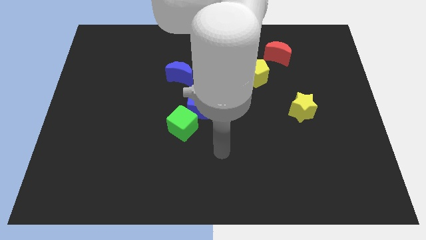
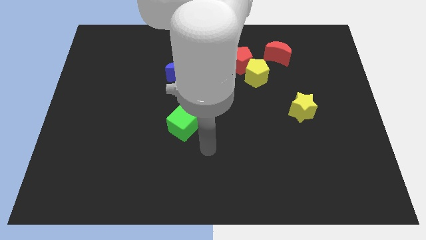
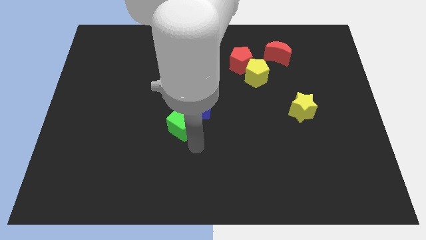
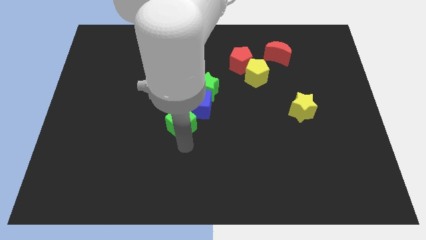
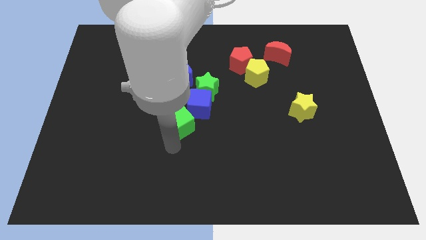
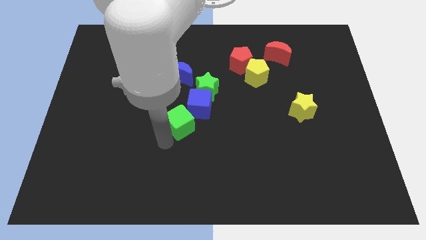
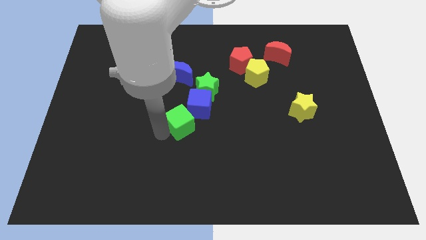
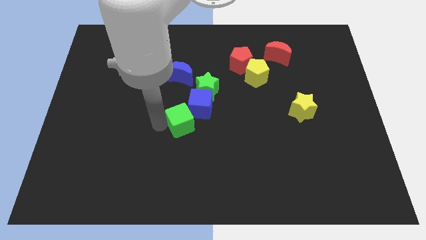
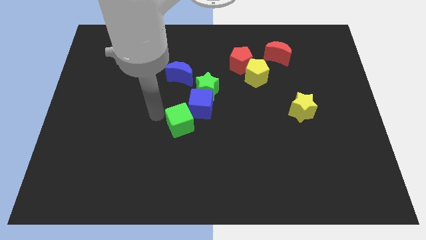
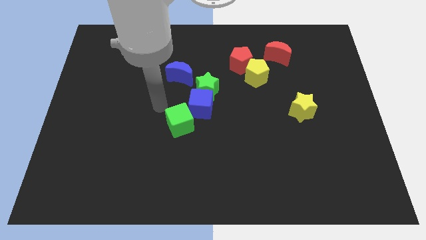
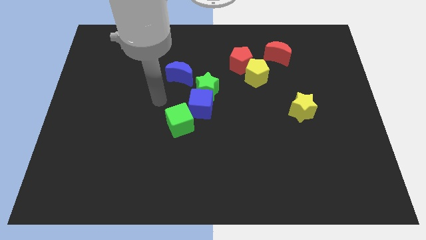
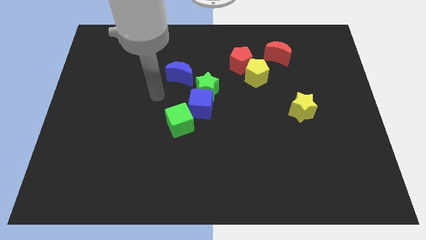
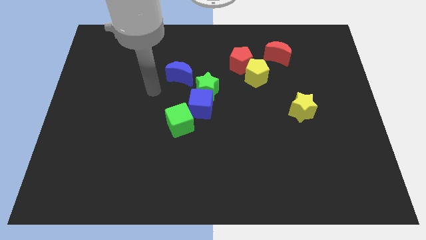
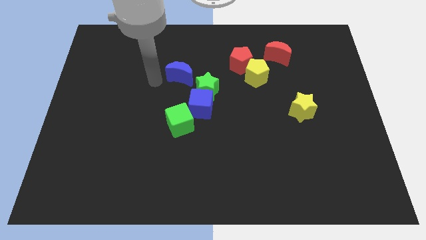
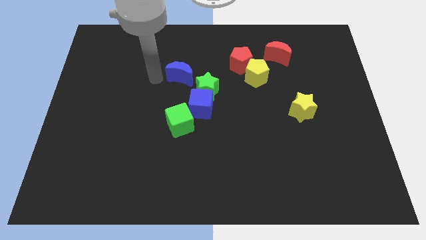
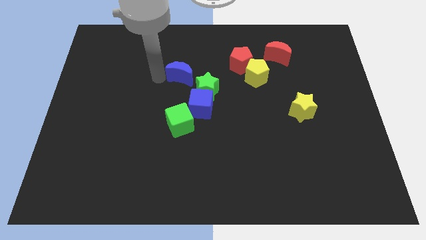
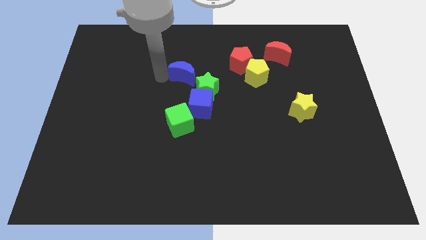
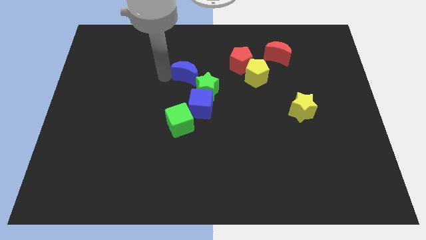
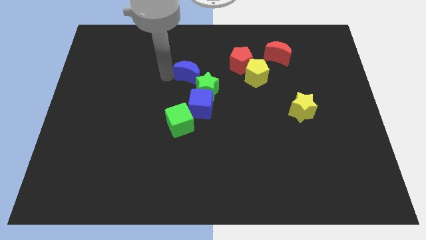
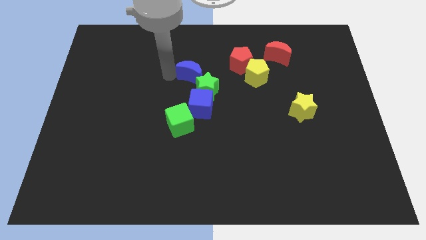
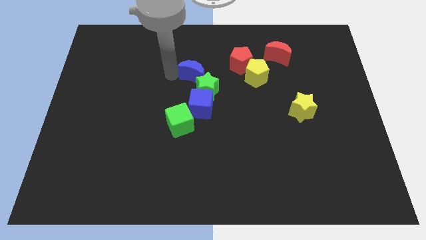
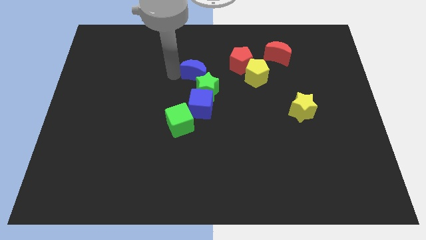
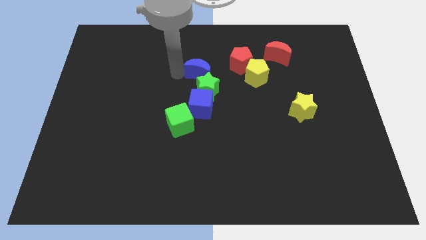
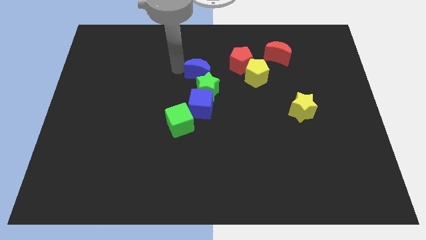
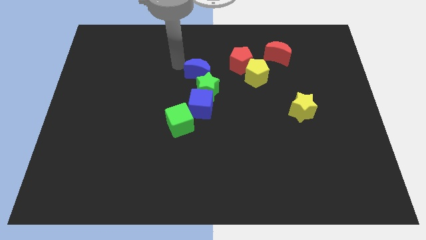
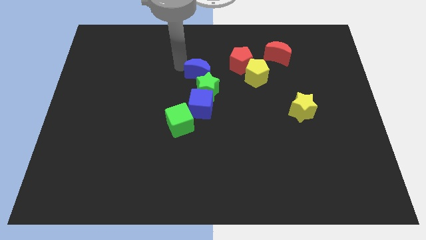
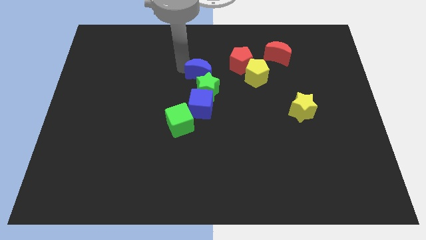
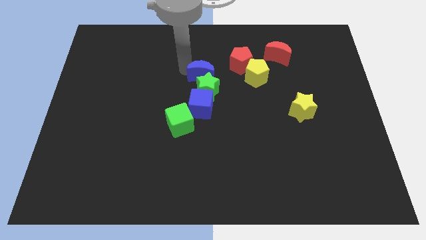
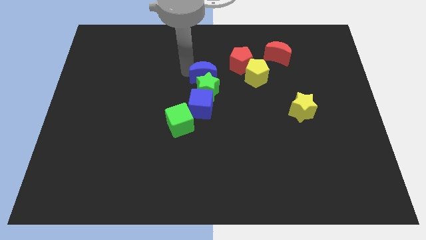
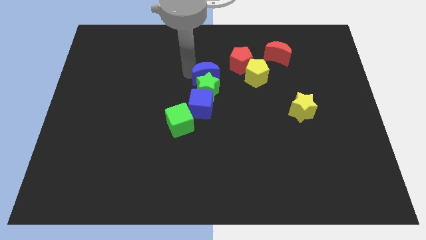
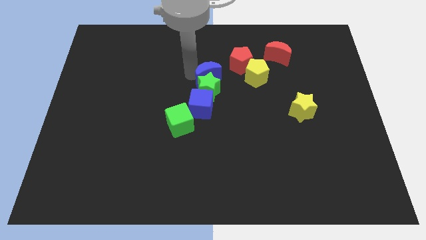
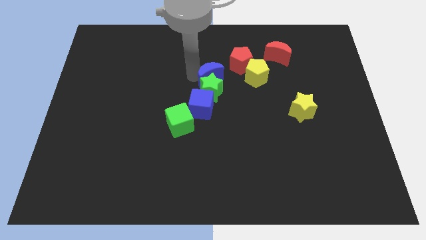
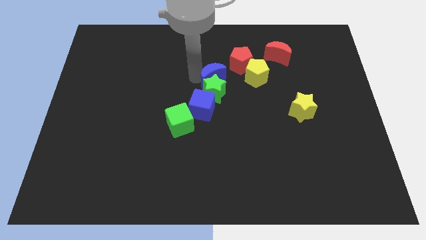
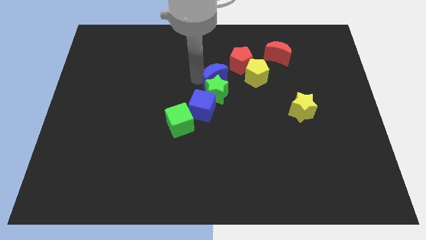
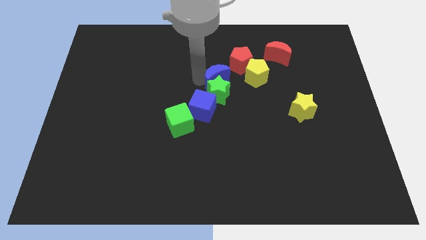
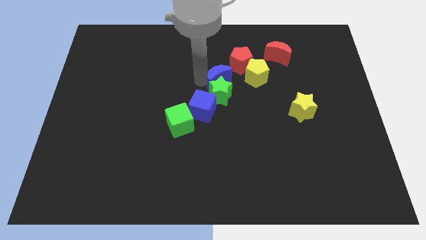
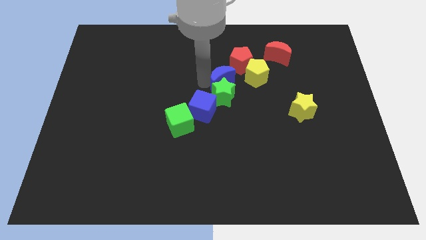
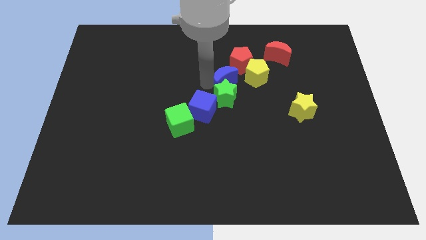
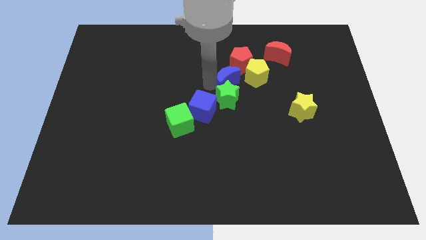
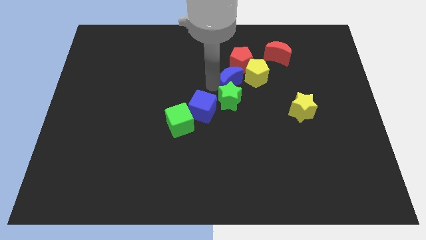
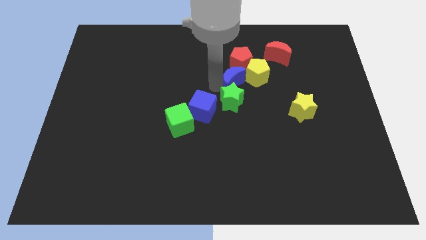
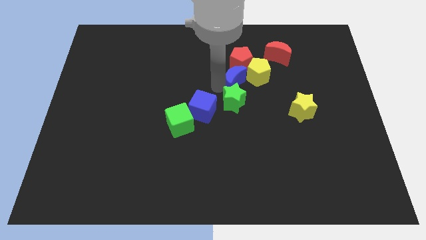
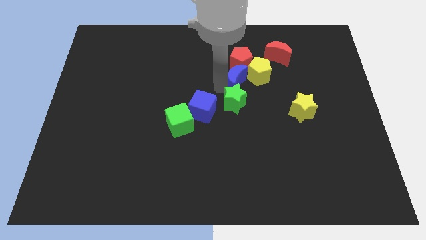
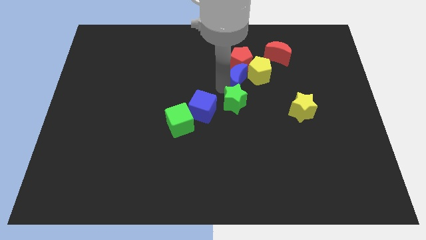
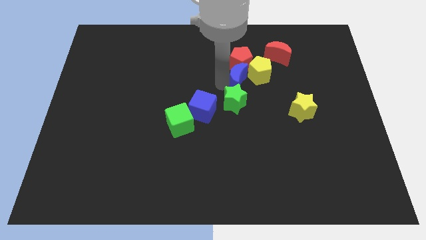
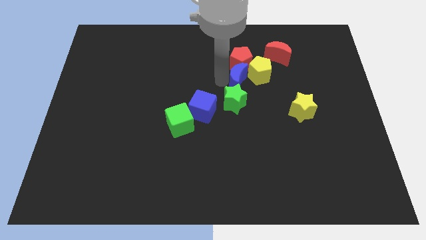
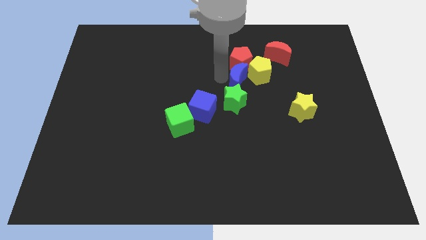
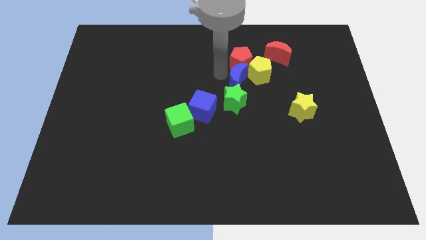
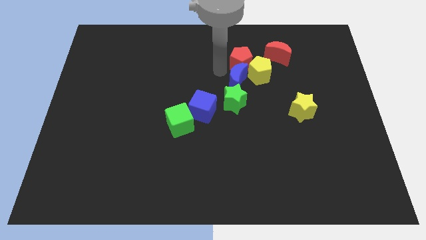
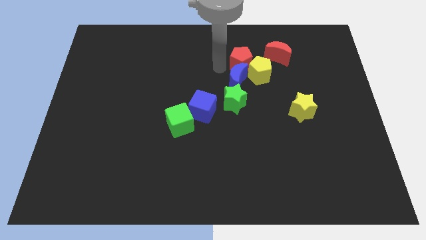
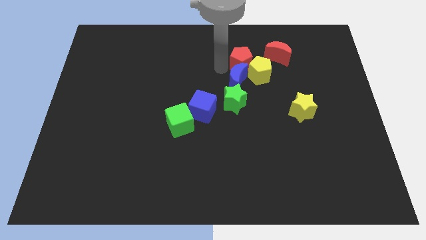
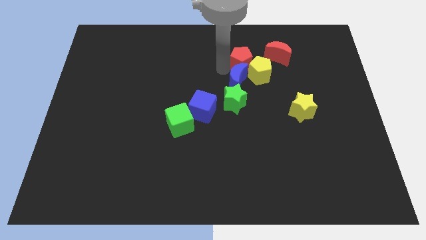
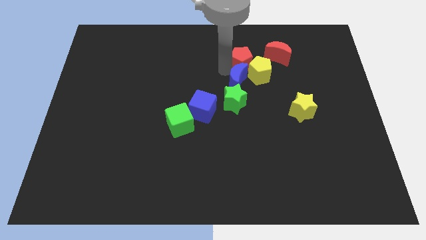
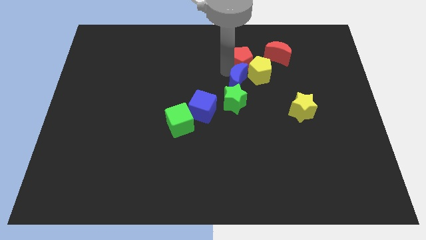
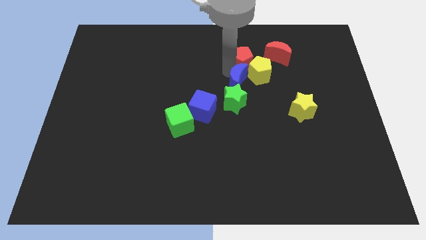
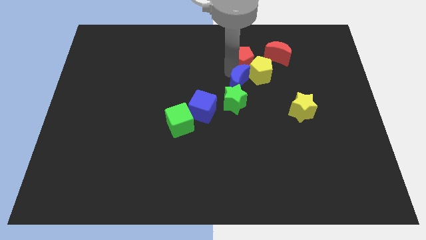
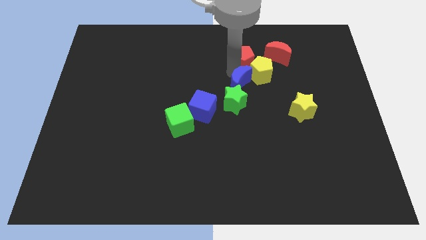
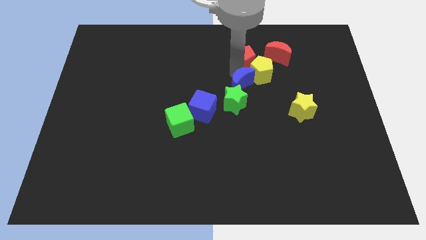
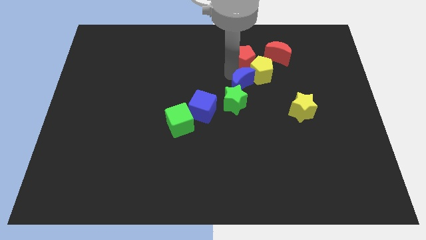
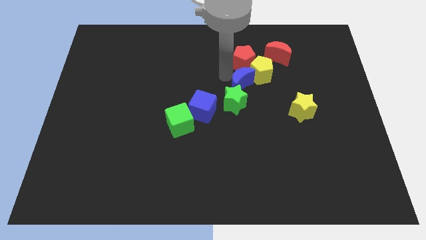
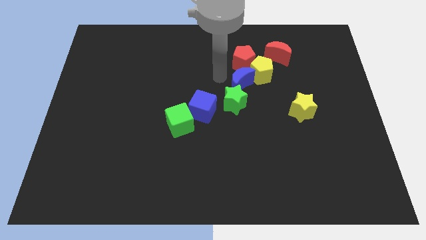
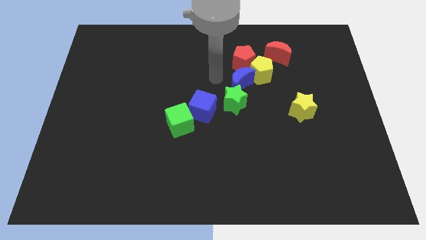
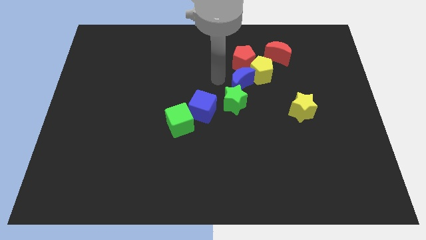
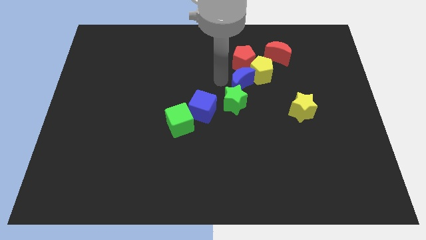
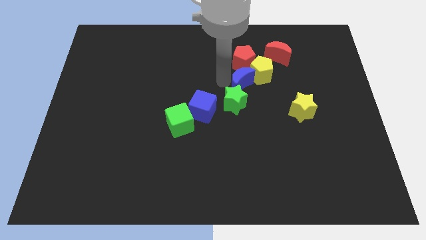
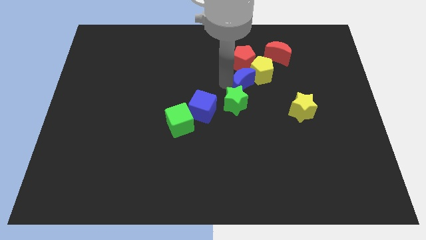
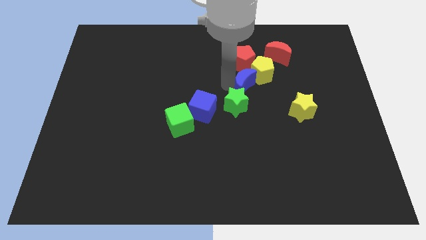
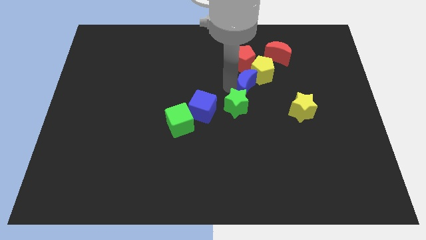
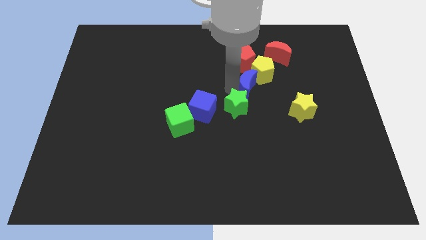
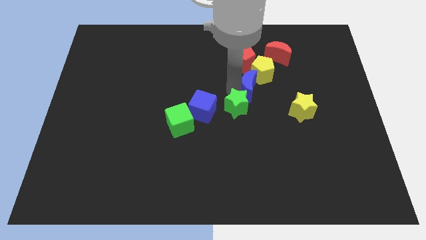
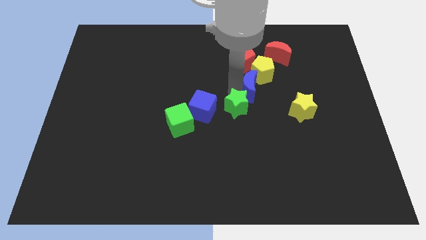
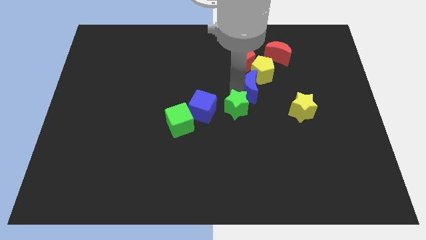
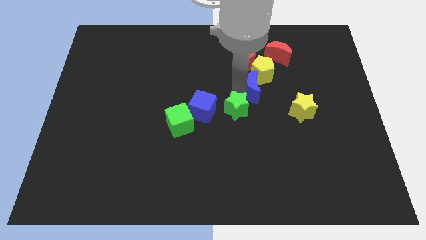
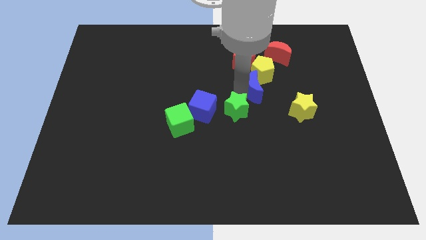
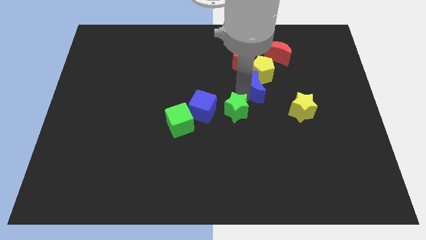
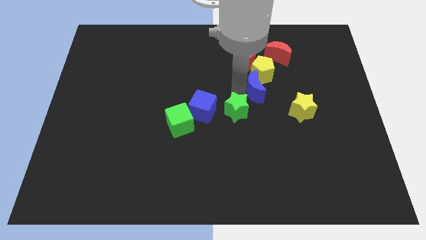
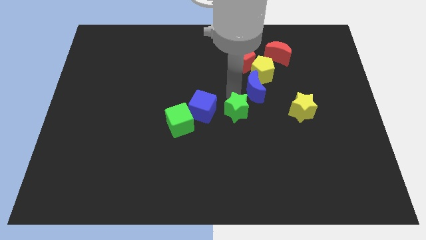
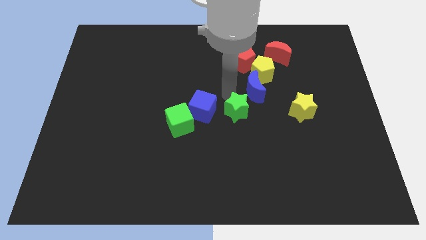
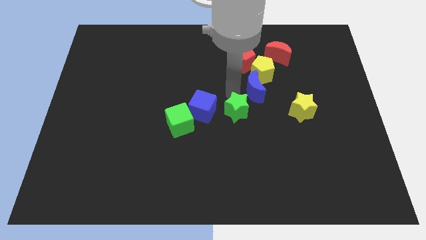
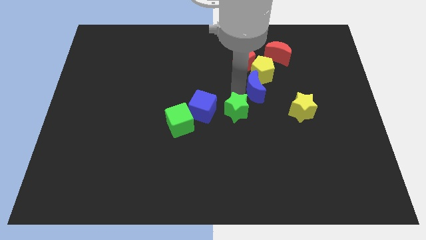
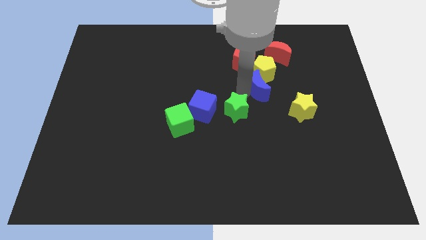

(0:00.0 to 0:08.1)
push the blue moon to the bottom right of the red pentagon
